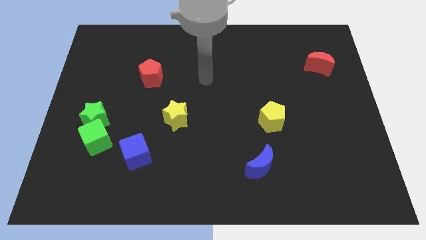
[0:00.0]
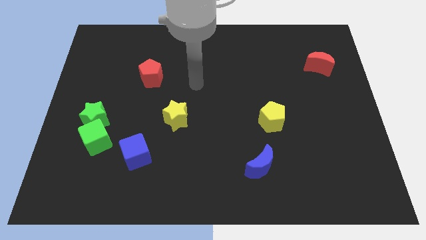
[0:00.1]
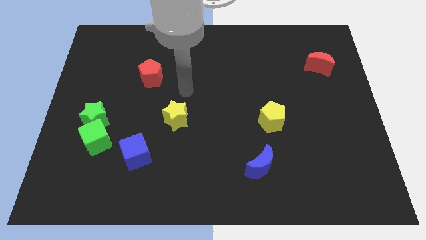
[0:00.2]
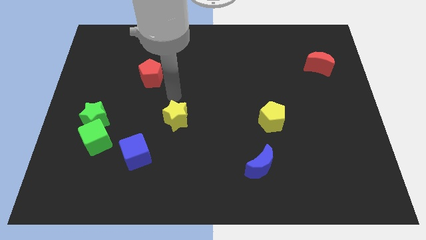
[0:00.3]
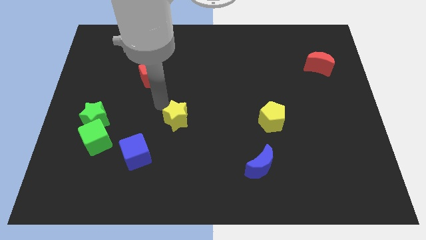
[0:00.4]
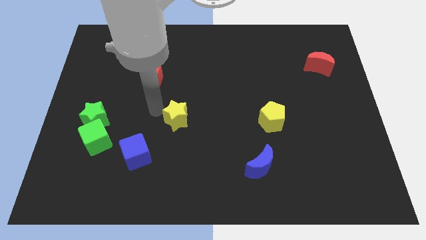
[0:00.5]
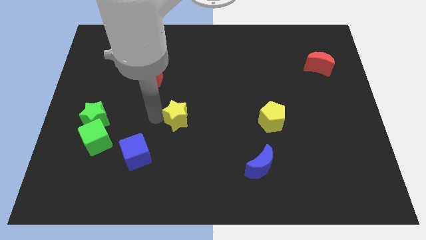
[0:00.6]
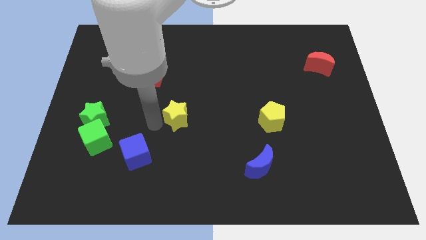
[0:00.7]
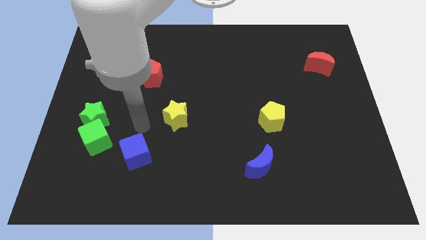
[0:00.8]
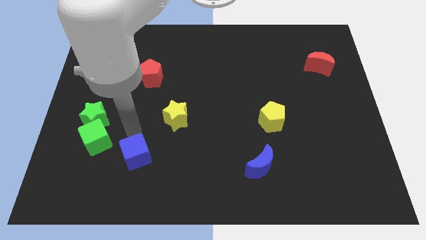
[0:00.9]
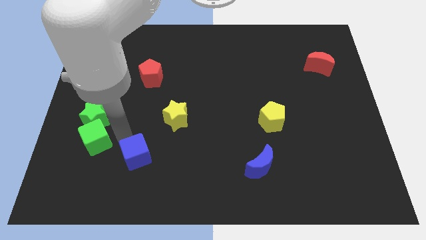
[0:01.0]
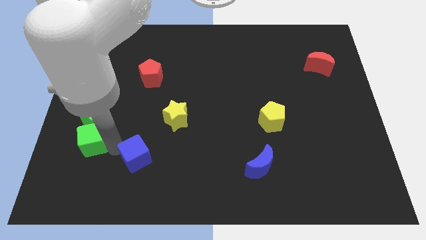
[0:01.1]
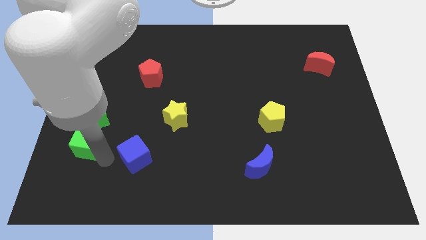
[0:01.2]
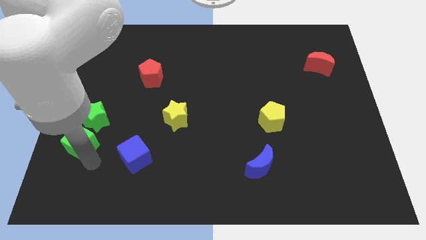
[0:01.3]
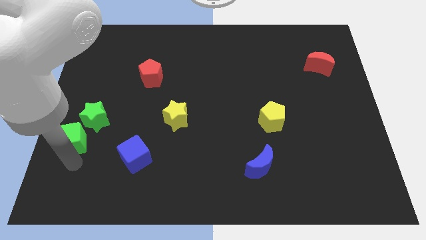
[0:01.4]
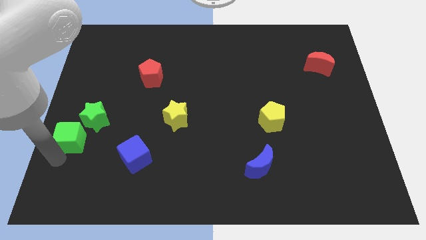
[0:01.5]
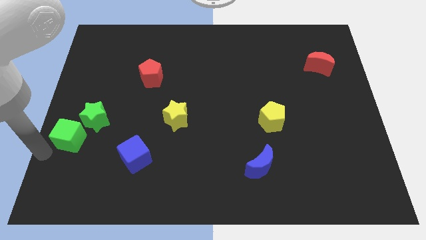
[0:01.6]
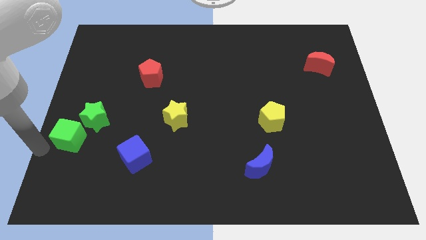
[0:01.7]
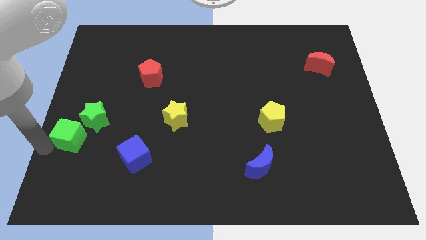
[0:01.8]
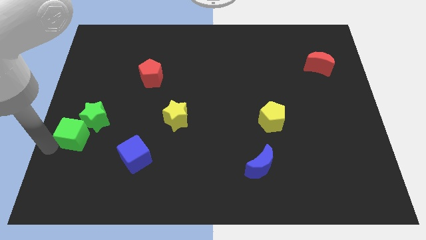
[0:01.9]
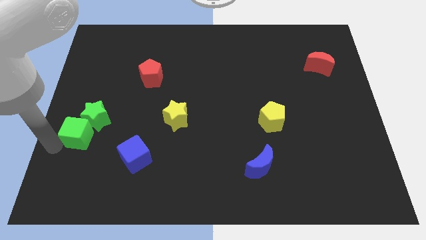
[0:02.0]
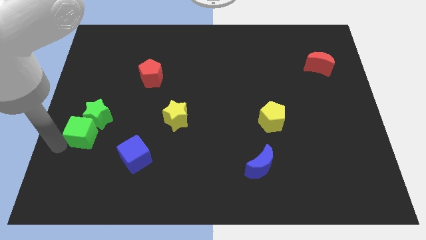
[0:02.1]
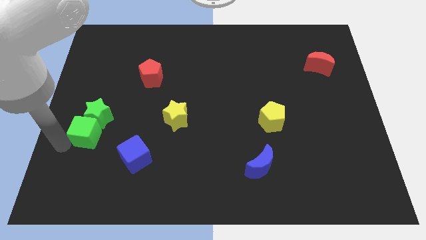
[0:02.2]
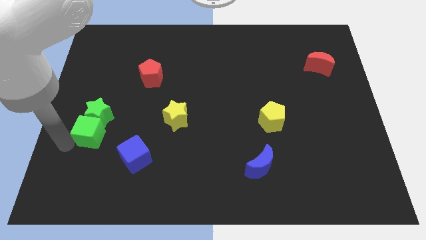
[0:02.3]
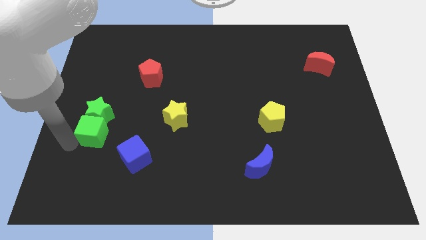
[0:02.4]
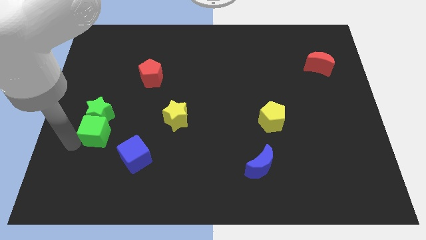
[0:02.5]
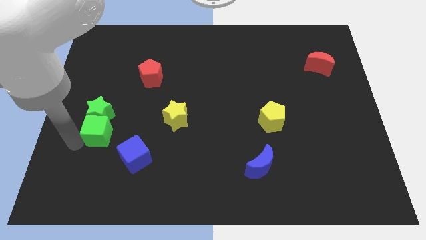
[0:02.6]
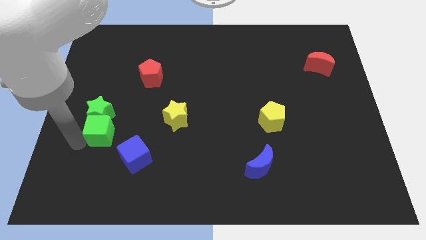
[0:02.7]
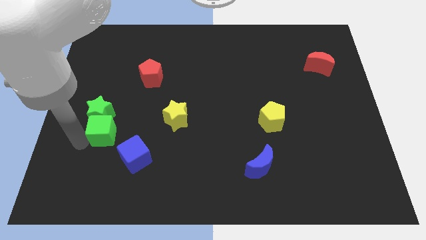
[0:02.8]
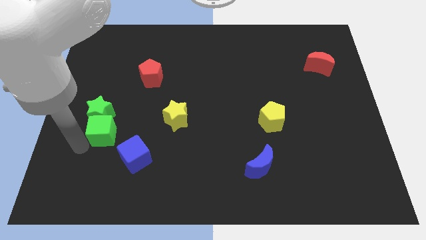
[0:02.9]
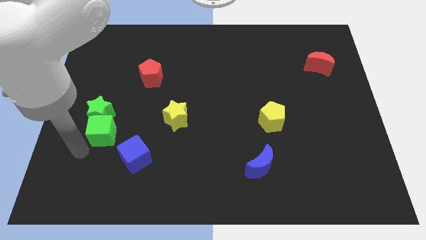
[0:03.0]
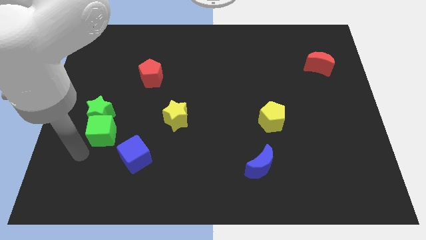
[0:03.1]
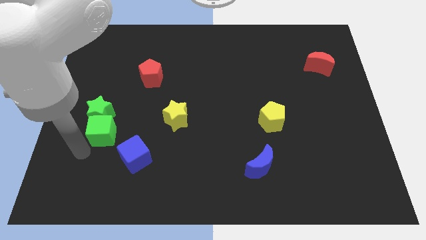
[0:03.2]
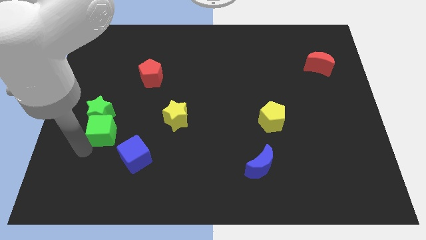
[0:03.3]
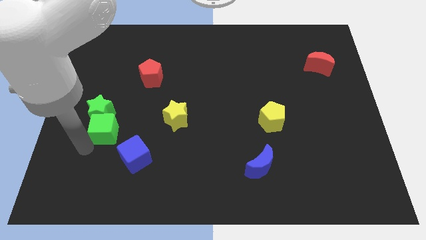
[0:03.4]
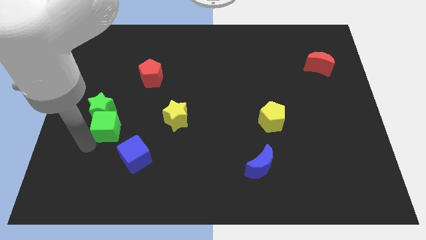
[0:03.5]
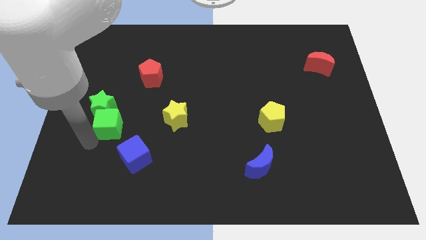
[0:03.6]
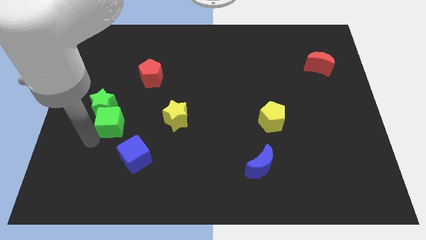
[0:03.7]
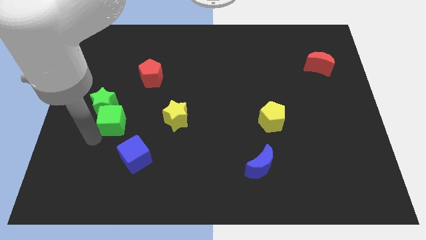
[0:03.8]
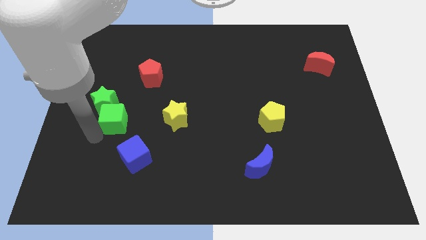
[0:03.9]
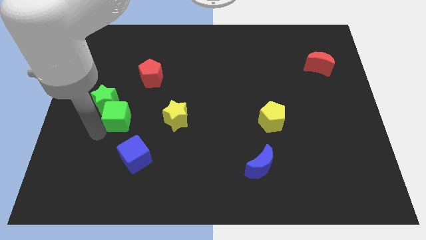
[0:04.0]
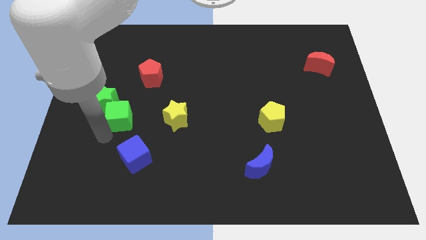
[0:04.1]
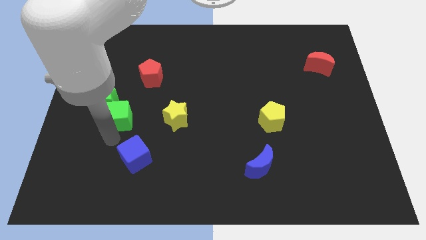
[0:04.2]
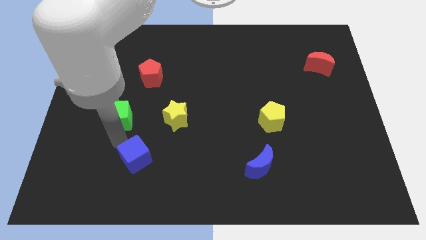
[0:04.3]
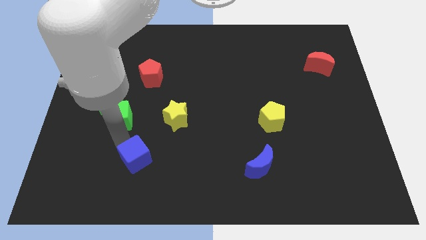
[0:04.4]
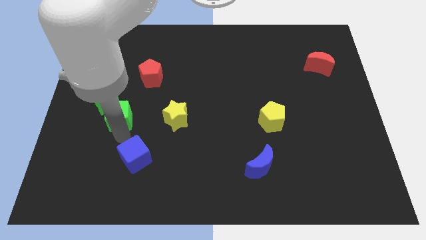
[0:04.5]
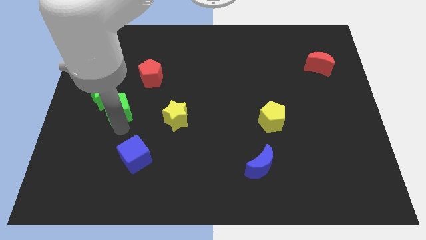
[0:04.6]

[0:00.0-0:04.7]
move the green cube a bit up

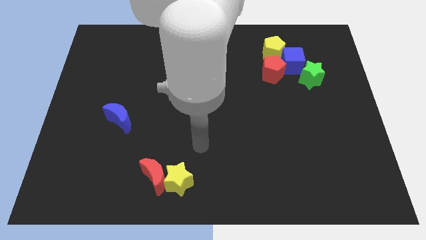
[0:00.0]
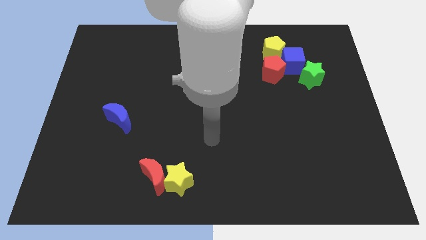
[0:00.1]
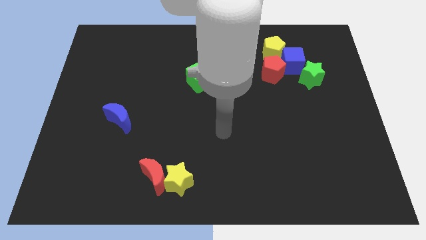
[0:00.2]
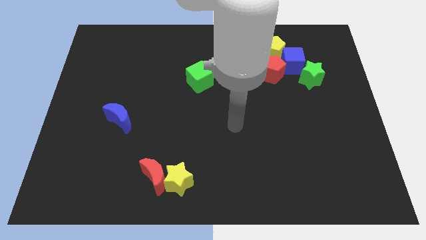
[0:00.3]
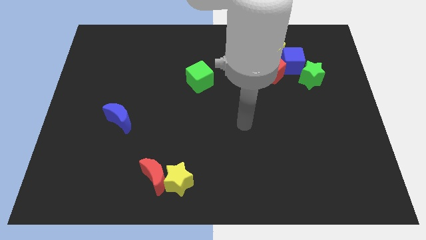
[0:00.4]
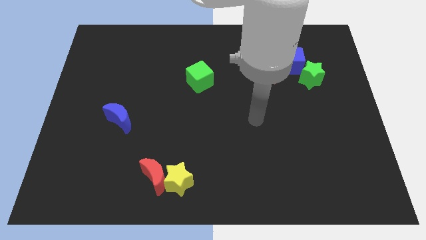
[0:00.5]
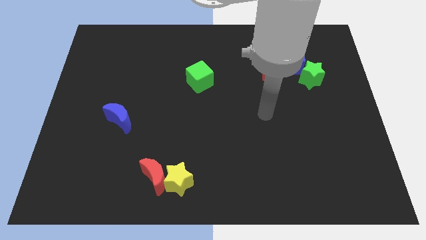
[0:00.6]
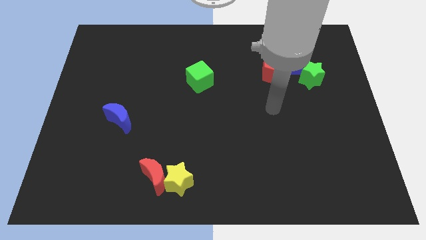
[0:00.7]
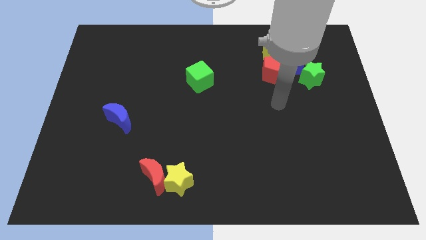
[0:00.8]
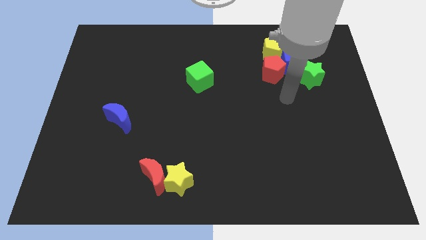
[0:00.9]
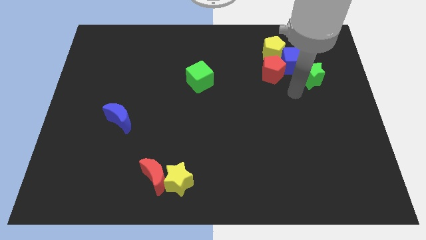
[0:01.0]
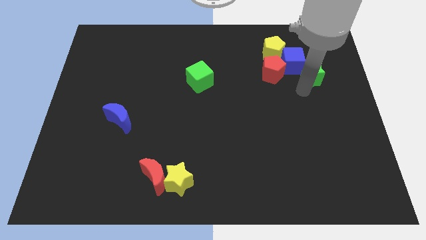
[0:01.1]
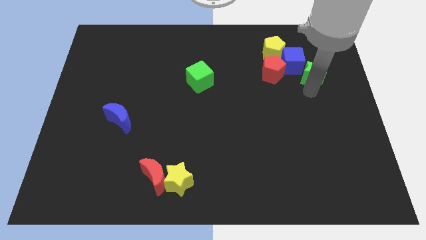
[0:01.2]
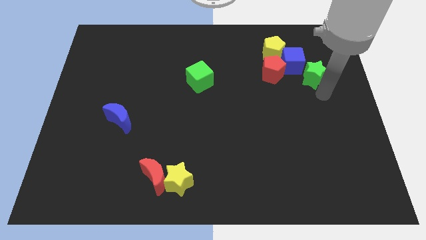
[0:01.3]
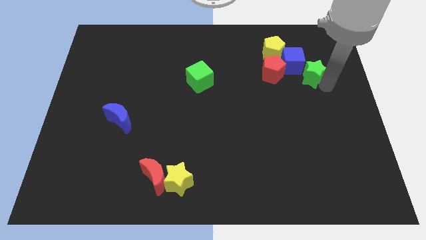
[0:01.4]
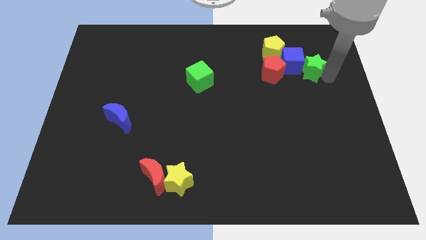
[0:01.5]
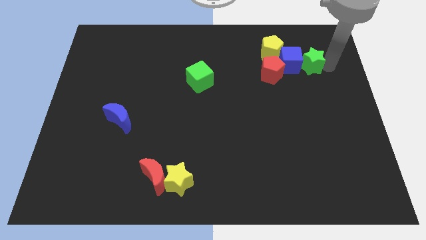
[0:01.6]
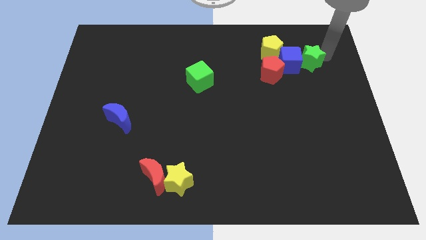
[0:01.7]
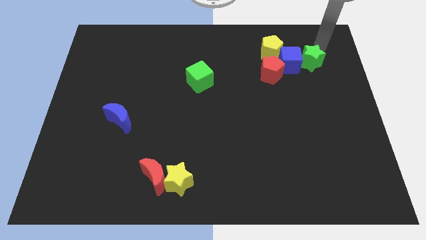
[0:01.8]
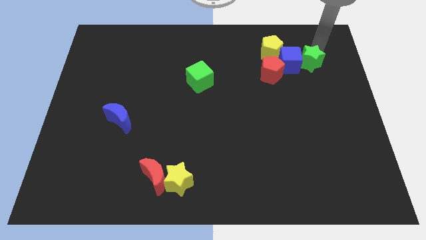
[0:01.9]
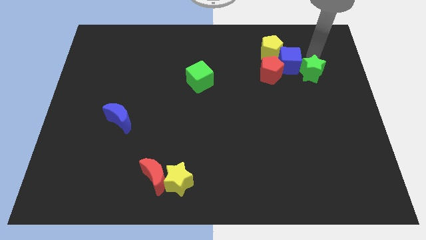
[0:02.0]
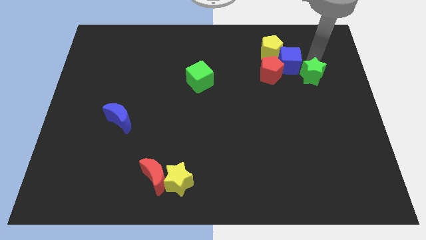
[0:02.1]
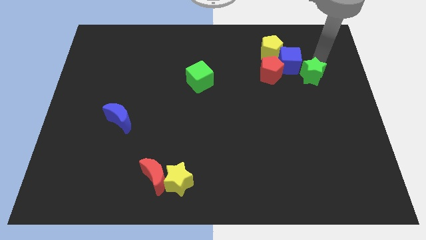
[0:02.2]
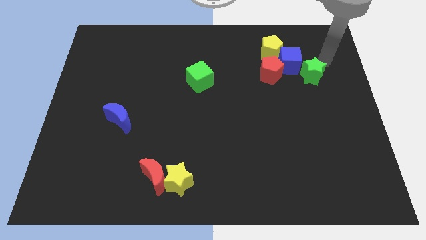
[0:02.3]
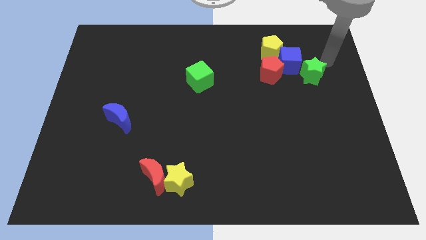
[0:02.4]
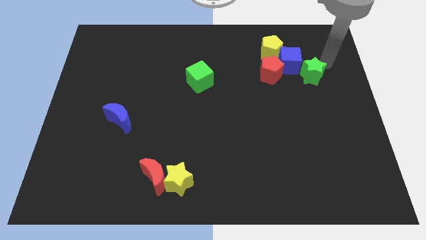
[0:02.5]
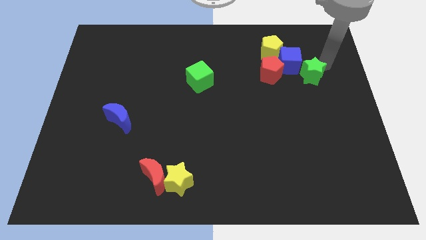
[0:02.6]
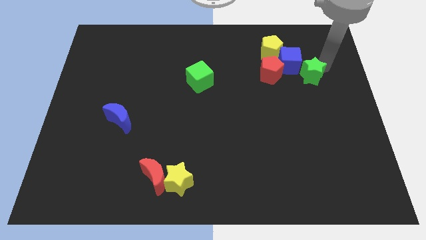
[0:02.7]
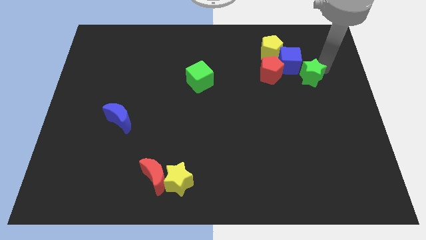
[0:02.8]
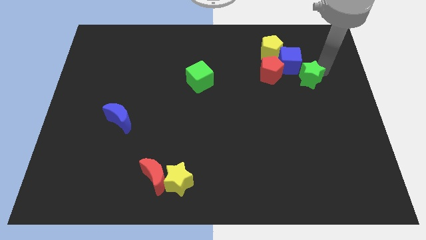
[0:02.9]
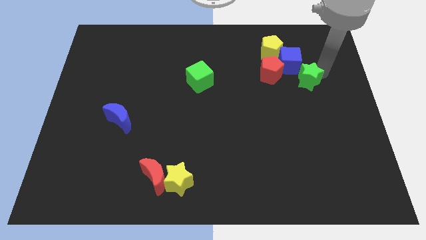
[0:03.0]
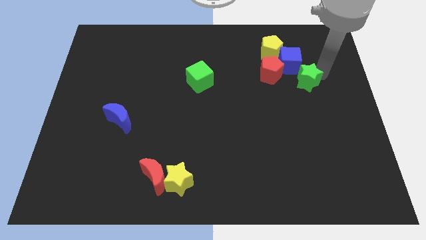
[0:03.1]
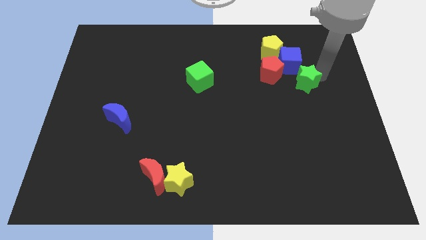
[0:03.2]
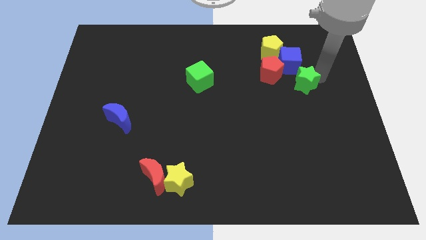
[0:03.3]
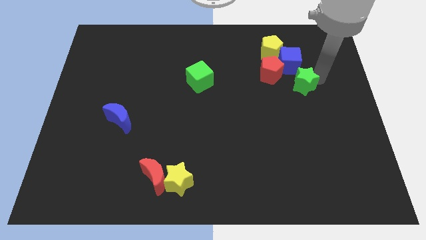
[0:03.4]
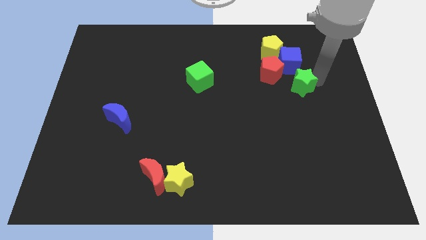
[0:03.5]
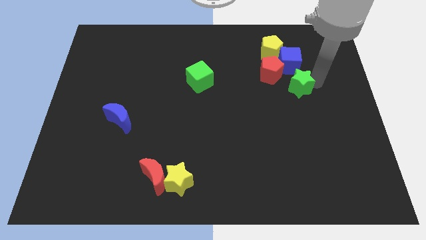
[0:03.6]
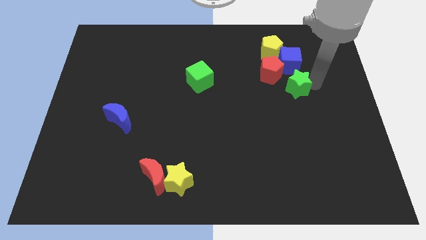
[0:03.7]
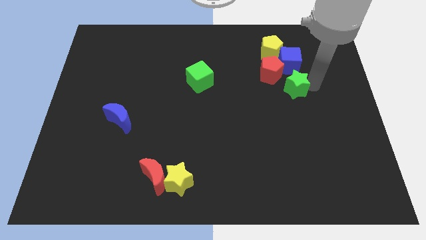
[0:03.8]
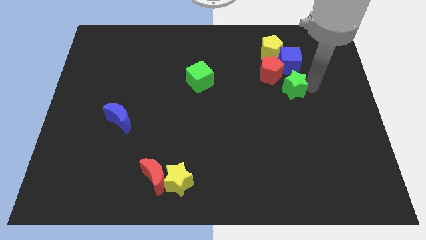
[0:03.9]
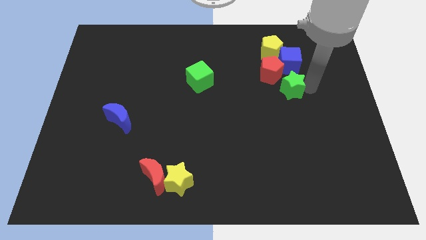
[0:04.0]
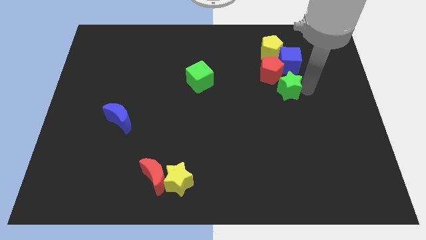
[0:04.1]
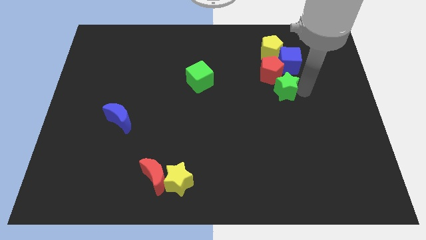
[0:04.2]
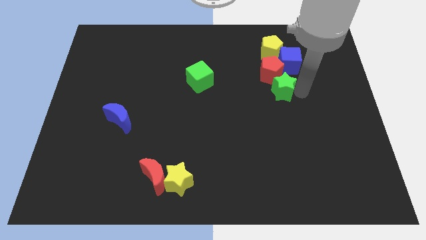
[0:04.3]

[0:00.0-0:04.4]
push the green star left a little bit
